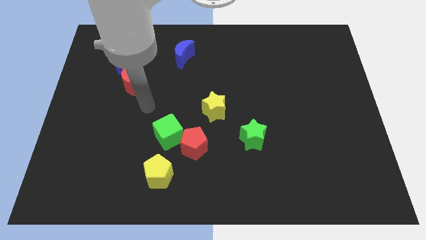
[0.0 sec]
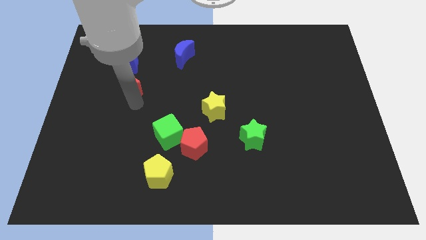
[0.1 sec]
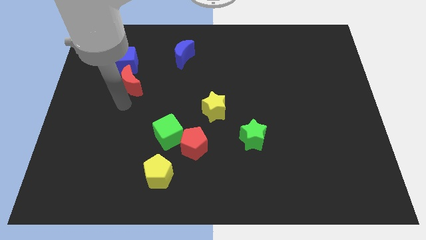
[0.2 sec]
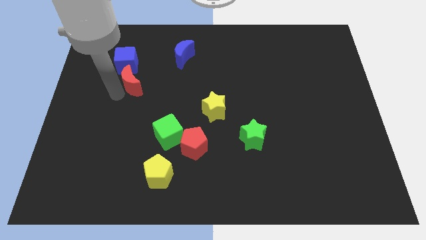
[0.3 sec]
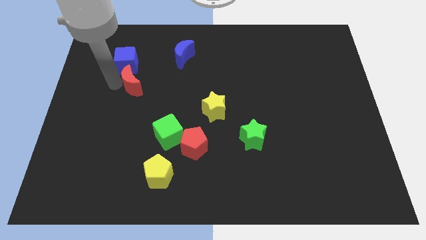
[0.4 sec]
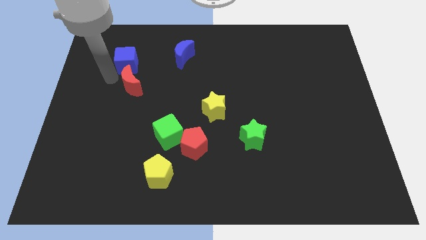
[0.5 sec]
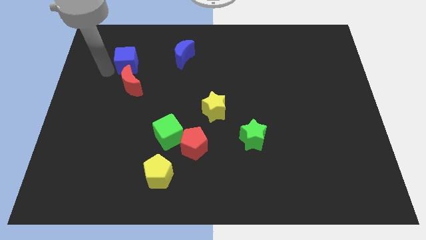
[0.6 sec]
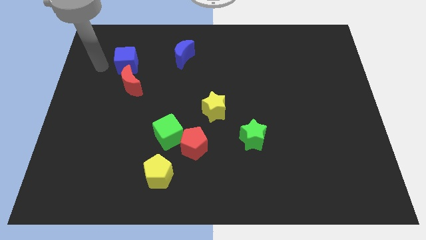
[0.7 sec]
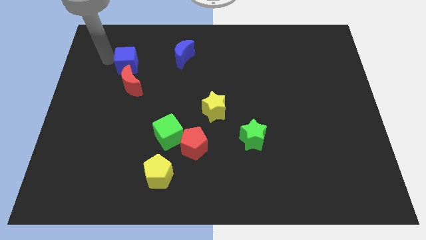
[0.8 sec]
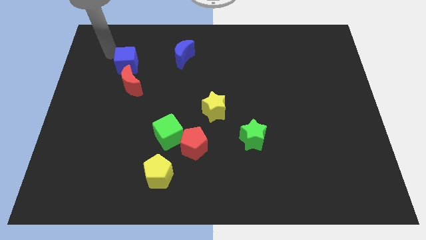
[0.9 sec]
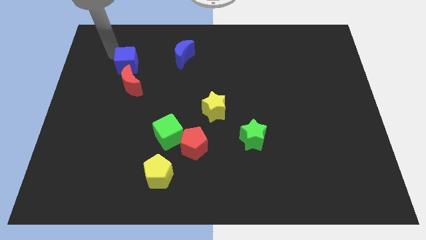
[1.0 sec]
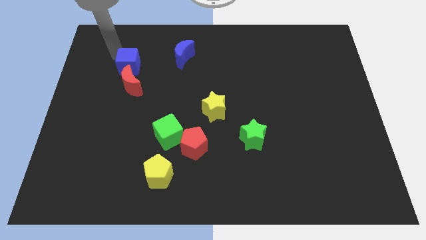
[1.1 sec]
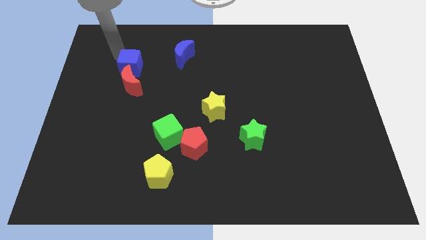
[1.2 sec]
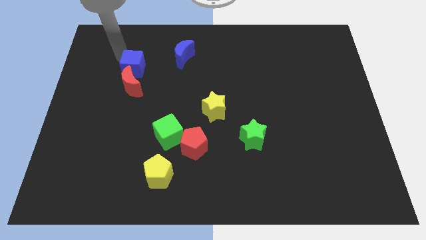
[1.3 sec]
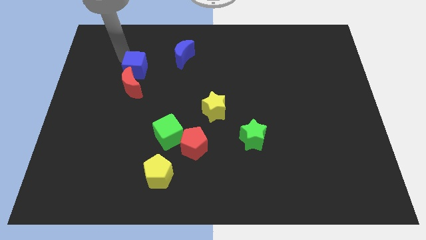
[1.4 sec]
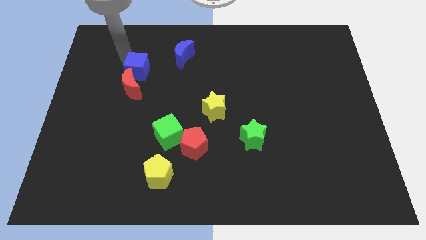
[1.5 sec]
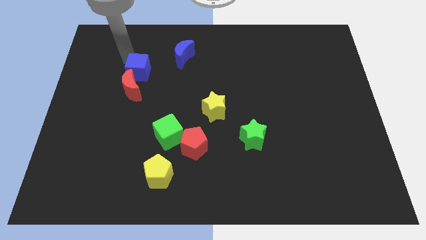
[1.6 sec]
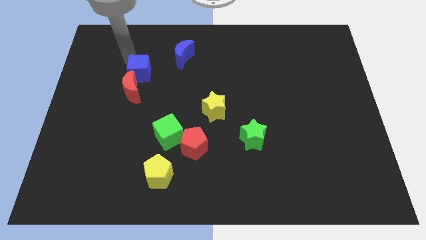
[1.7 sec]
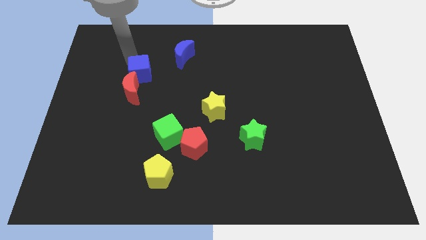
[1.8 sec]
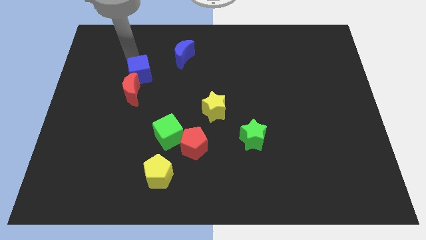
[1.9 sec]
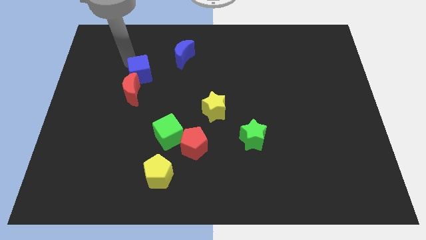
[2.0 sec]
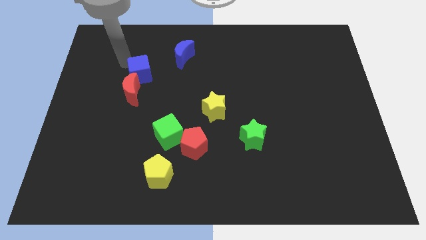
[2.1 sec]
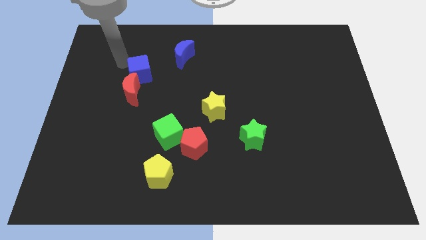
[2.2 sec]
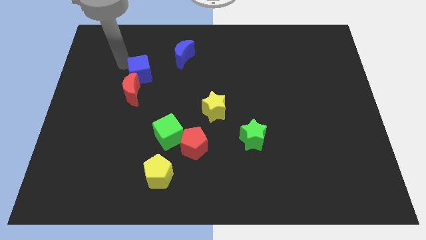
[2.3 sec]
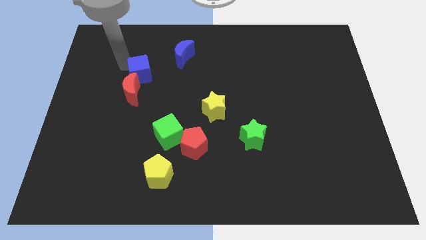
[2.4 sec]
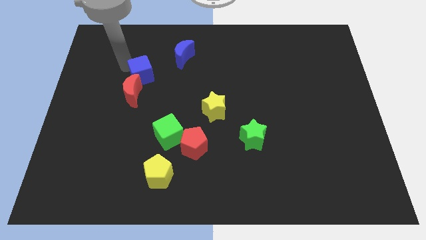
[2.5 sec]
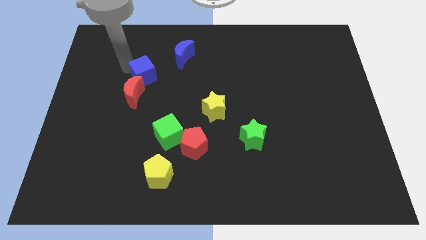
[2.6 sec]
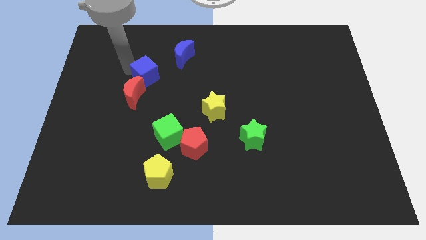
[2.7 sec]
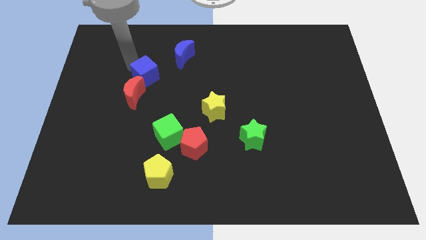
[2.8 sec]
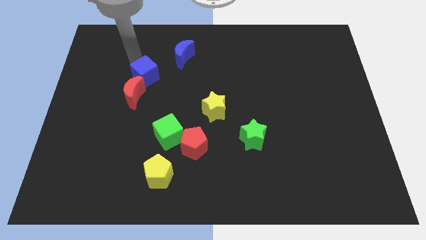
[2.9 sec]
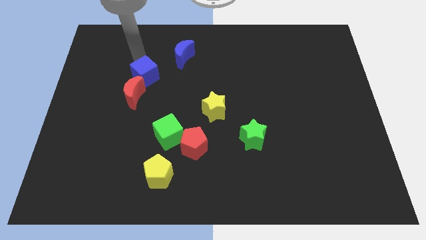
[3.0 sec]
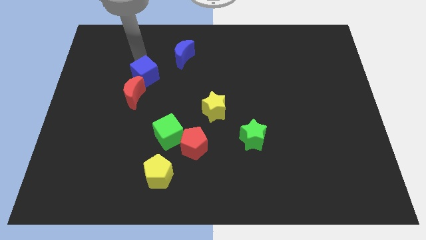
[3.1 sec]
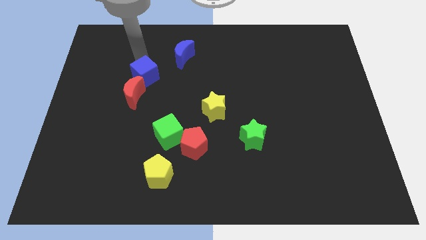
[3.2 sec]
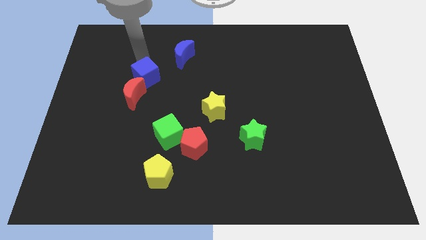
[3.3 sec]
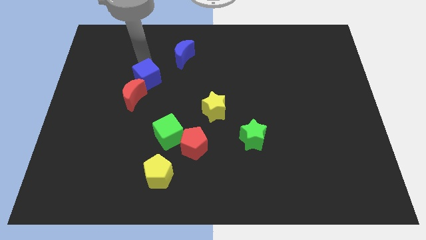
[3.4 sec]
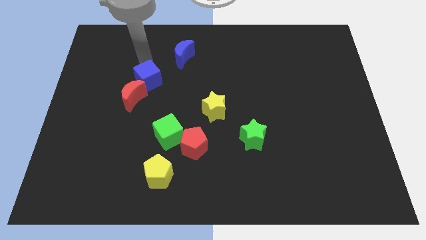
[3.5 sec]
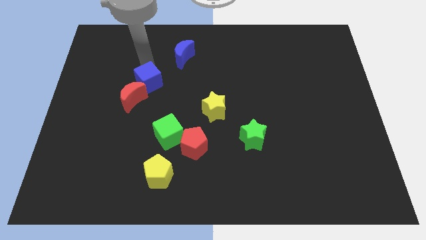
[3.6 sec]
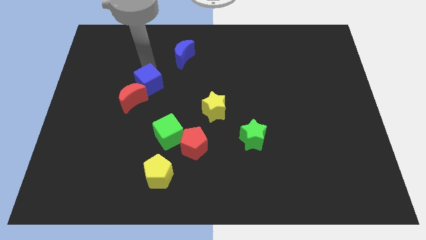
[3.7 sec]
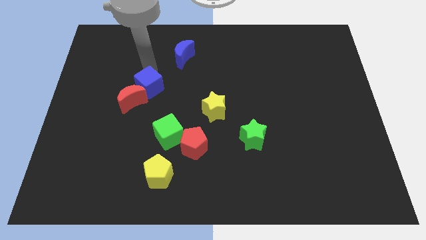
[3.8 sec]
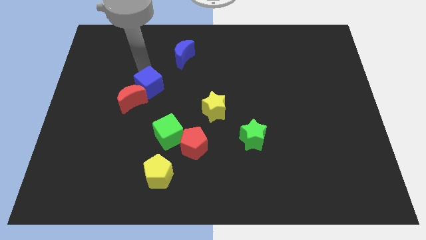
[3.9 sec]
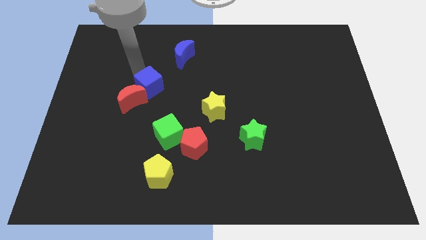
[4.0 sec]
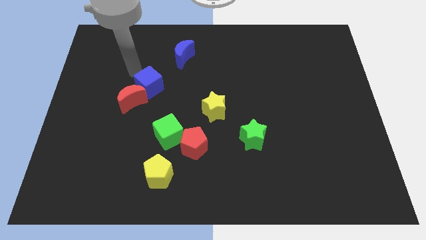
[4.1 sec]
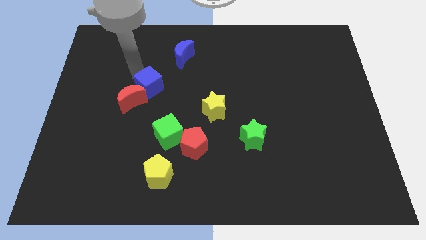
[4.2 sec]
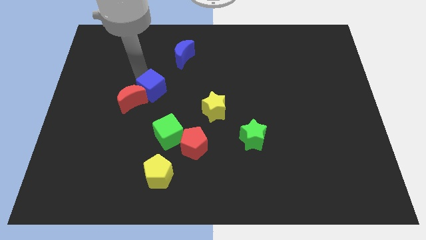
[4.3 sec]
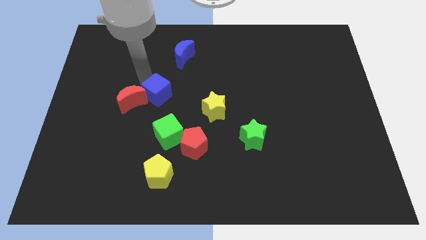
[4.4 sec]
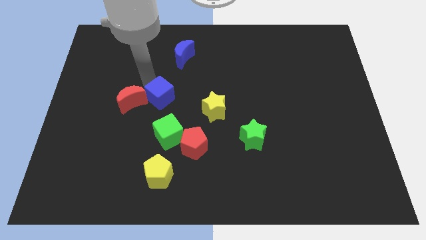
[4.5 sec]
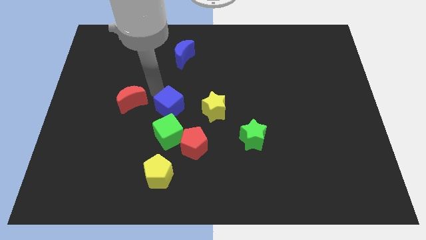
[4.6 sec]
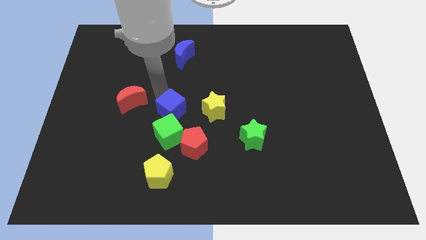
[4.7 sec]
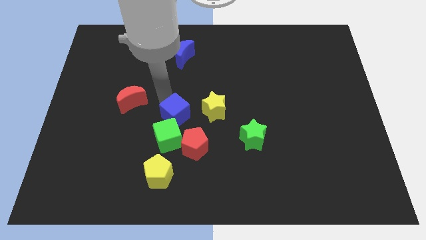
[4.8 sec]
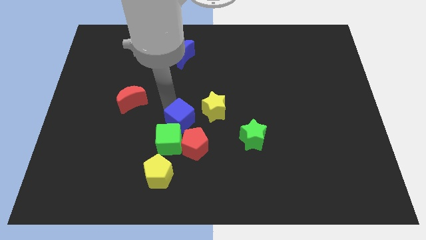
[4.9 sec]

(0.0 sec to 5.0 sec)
slide the blue cube to the bottom left of the yellow star

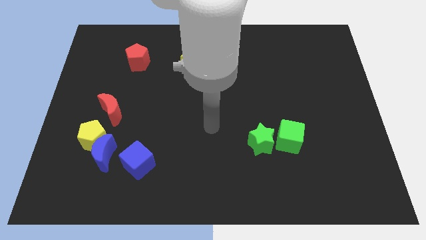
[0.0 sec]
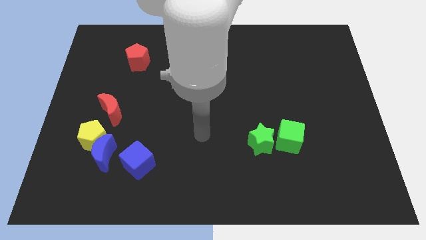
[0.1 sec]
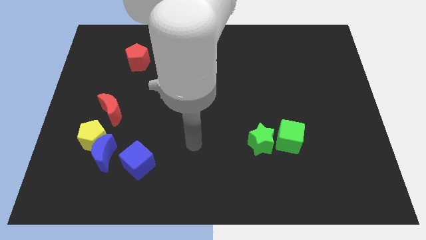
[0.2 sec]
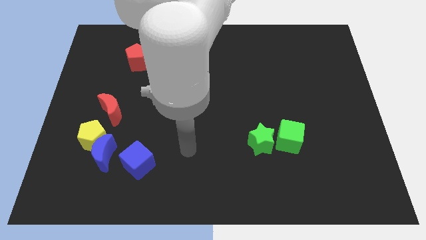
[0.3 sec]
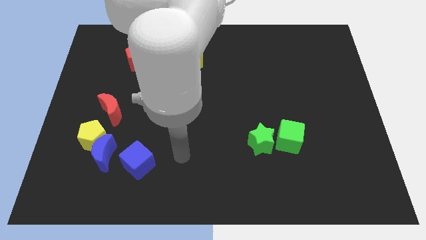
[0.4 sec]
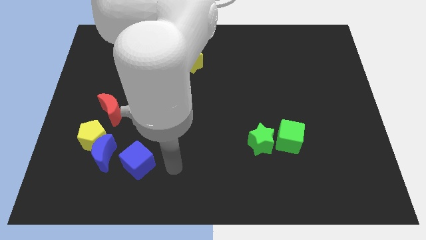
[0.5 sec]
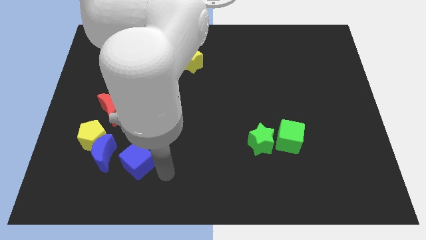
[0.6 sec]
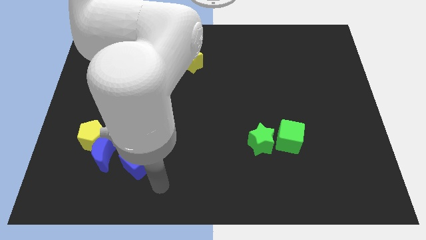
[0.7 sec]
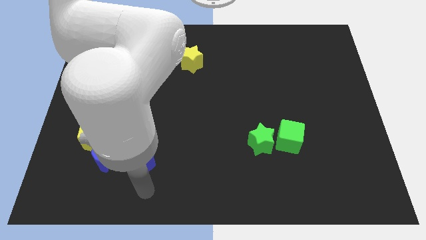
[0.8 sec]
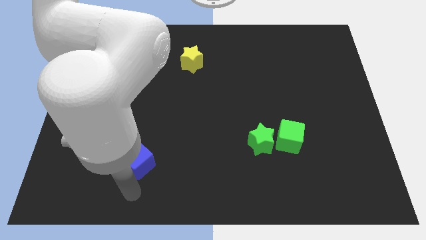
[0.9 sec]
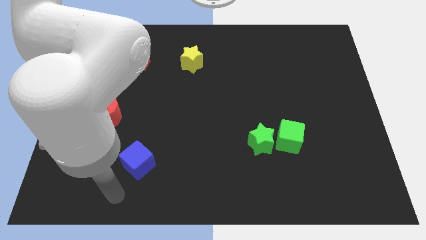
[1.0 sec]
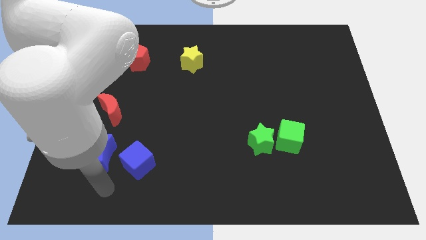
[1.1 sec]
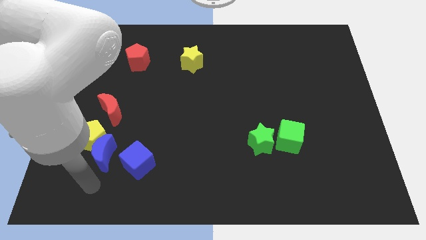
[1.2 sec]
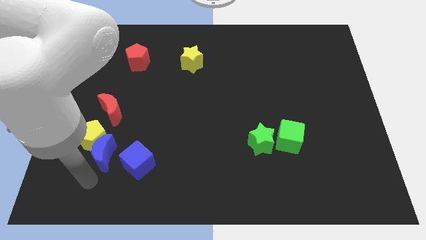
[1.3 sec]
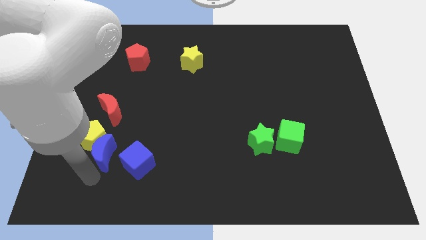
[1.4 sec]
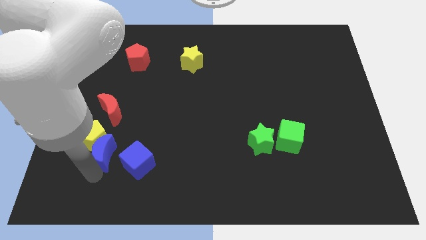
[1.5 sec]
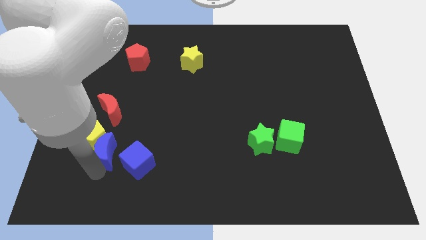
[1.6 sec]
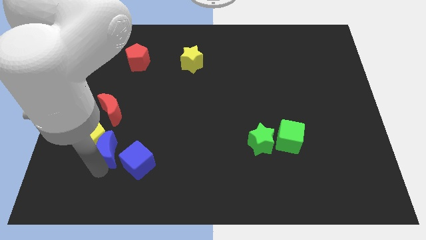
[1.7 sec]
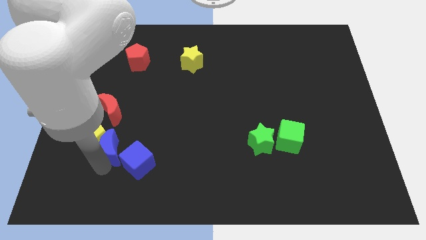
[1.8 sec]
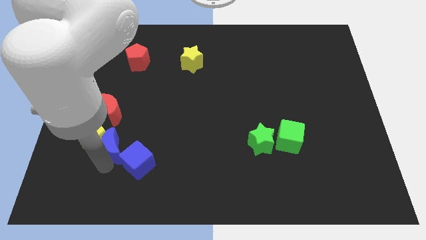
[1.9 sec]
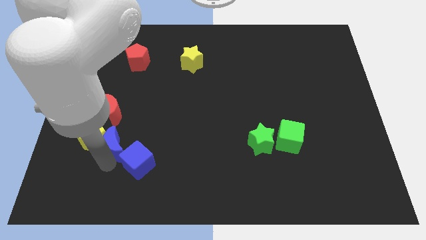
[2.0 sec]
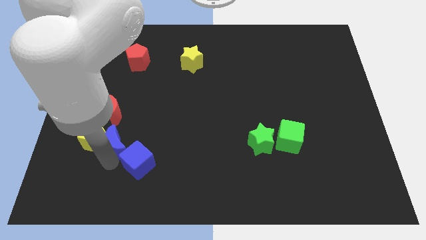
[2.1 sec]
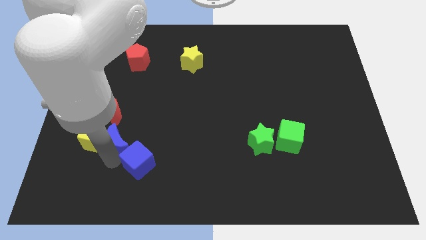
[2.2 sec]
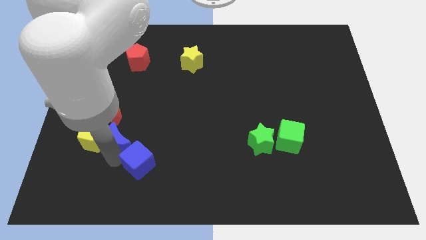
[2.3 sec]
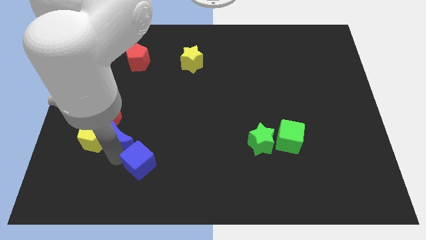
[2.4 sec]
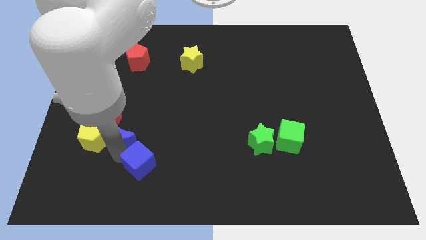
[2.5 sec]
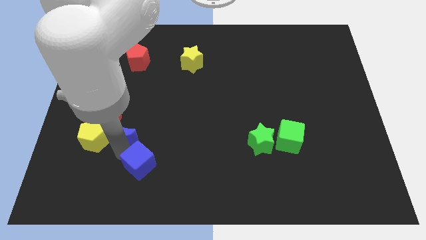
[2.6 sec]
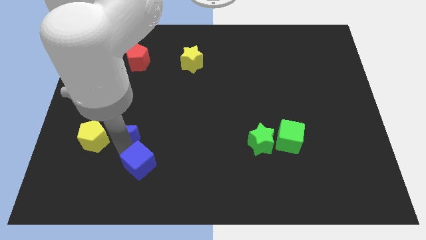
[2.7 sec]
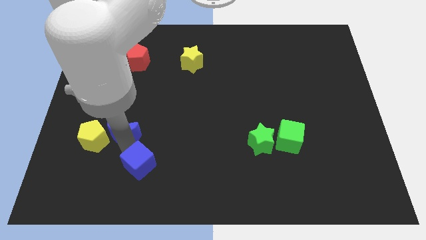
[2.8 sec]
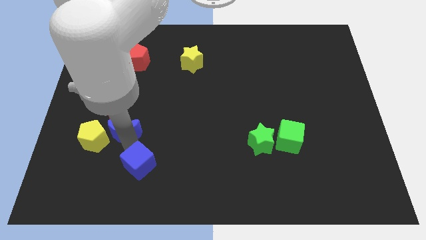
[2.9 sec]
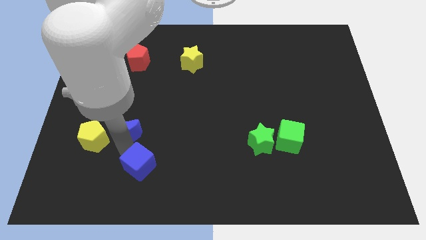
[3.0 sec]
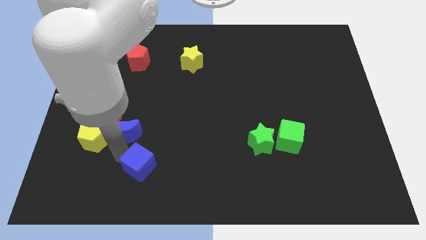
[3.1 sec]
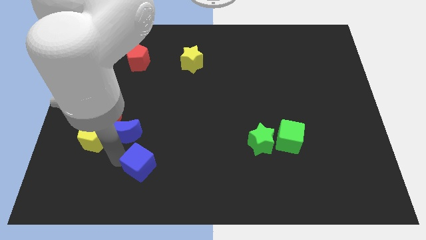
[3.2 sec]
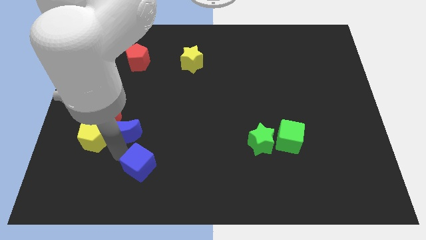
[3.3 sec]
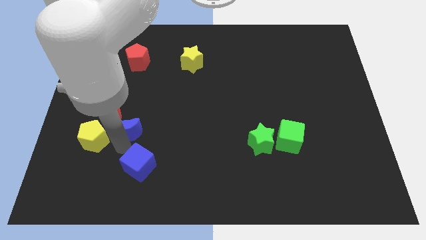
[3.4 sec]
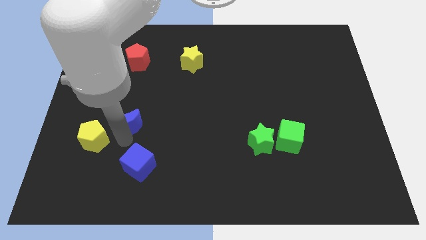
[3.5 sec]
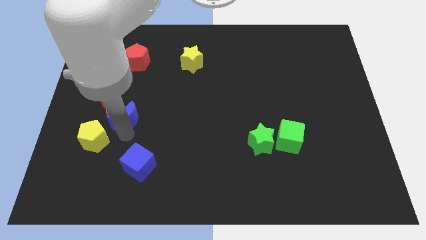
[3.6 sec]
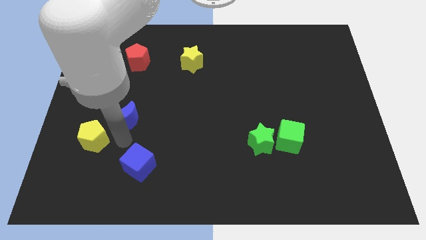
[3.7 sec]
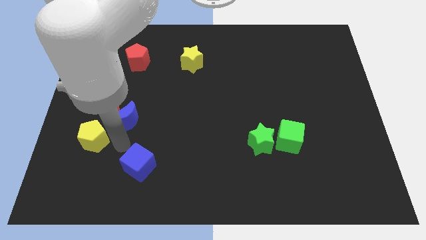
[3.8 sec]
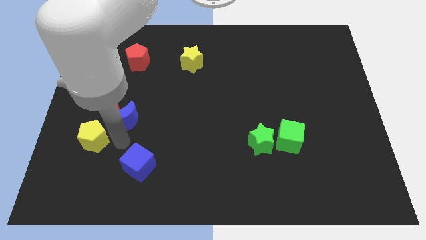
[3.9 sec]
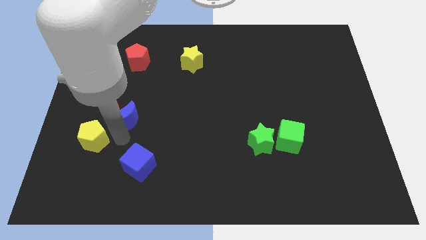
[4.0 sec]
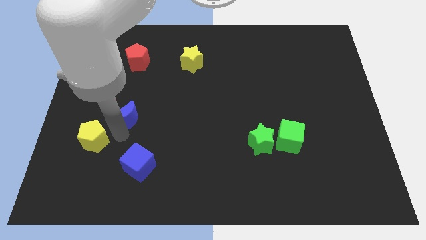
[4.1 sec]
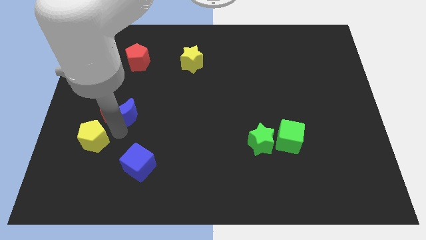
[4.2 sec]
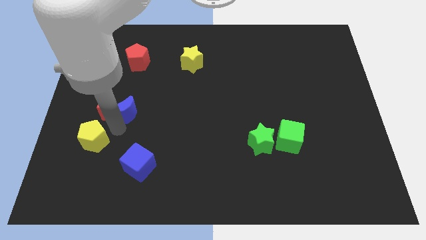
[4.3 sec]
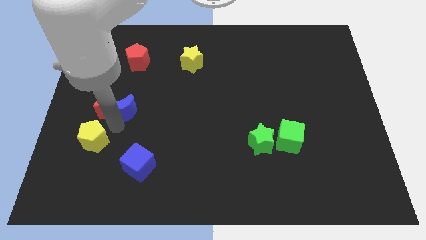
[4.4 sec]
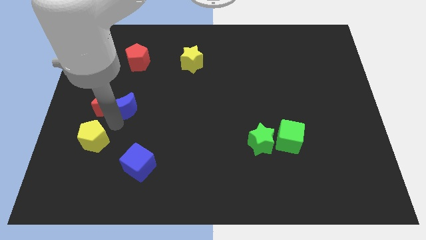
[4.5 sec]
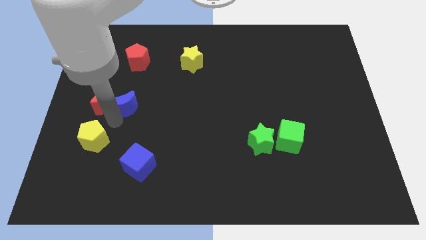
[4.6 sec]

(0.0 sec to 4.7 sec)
put the blue moon below the red pentagon
